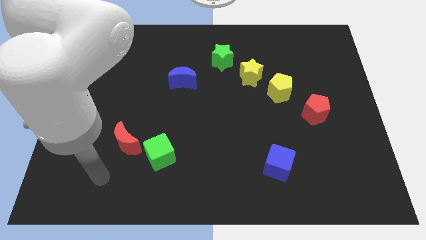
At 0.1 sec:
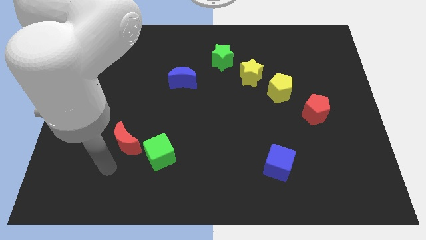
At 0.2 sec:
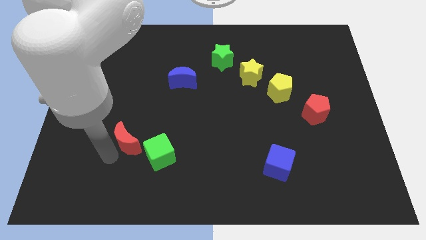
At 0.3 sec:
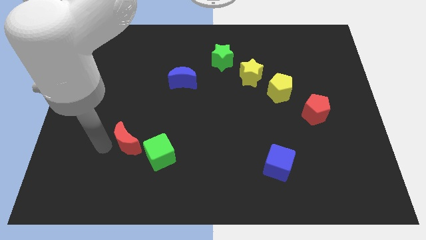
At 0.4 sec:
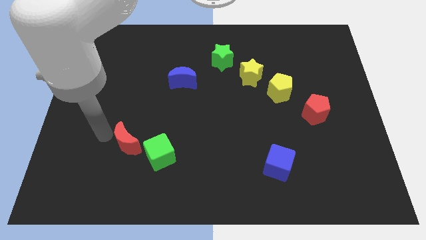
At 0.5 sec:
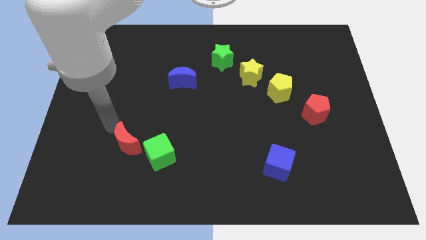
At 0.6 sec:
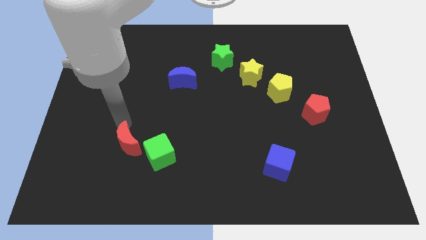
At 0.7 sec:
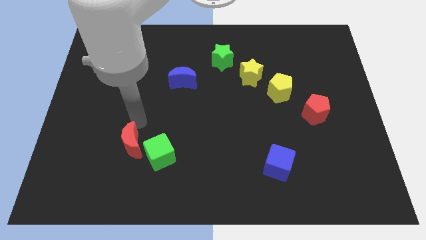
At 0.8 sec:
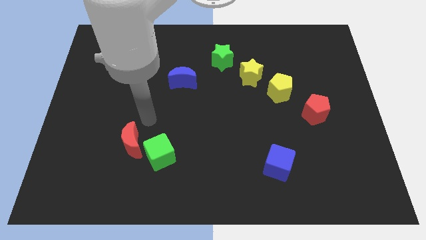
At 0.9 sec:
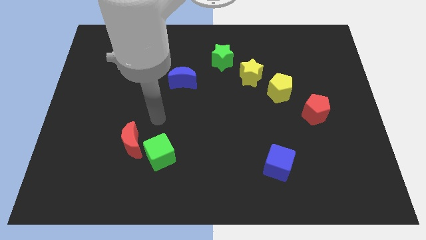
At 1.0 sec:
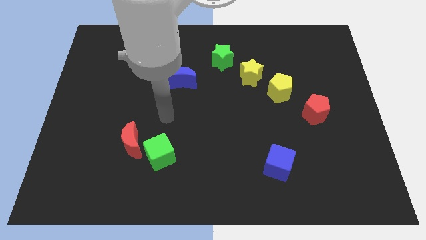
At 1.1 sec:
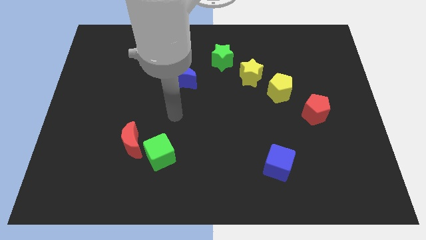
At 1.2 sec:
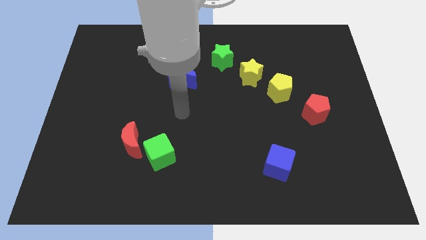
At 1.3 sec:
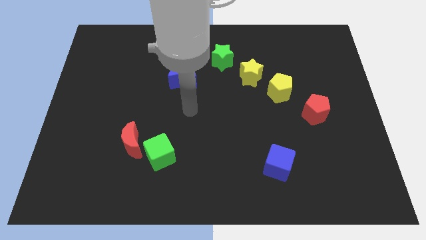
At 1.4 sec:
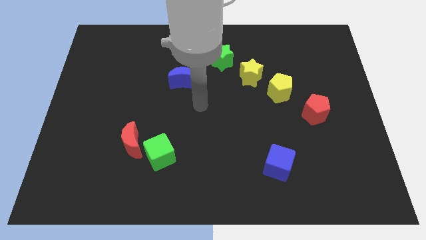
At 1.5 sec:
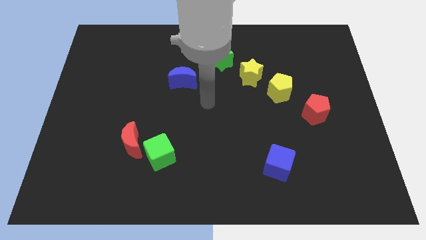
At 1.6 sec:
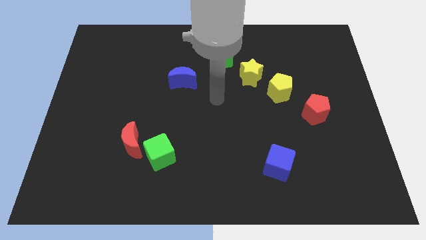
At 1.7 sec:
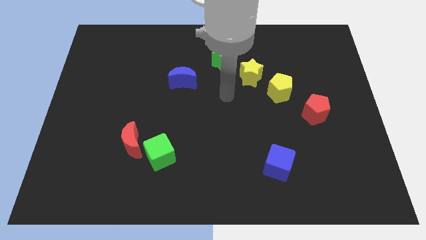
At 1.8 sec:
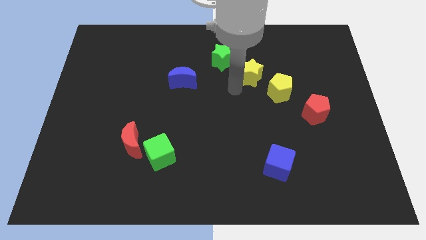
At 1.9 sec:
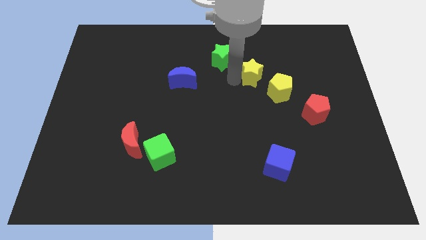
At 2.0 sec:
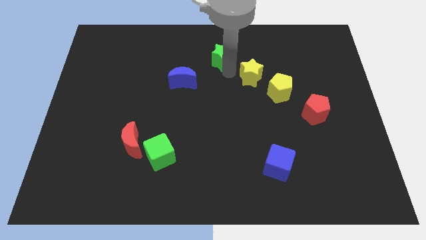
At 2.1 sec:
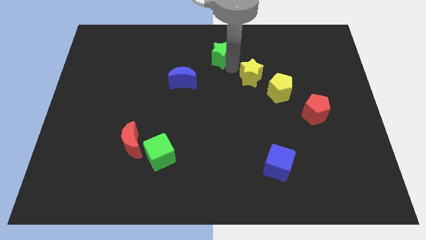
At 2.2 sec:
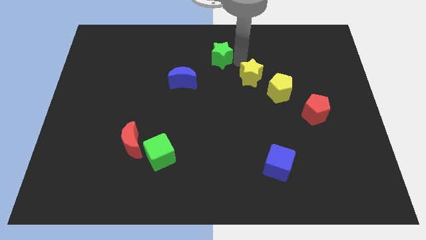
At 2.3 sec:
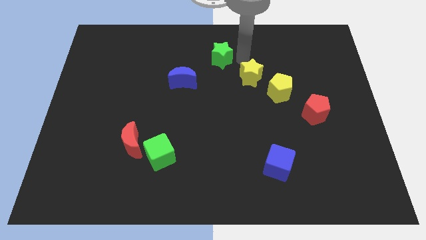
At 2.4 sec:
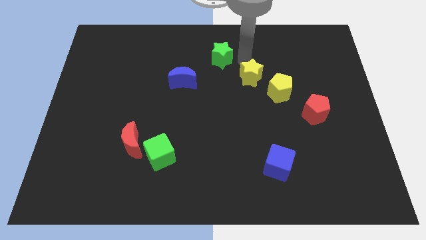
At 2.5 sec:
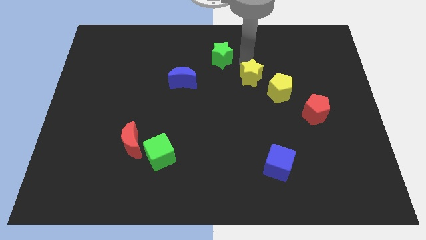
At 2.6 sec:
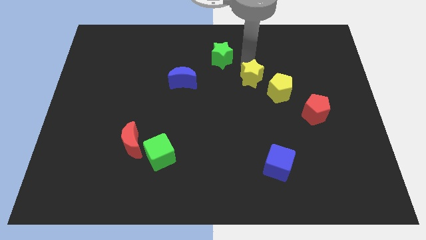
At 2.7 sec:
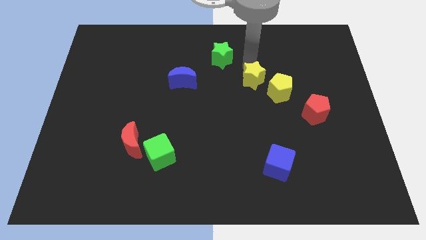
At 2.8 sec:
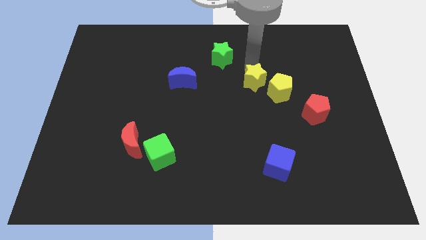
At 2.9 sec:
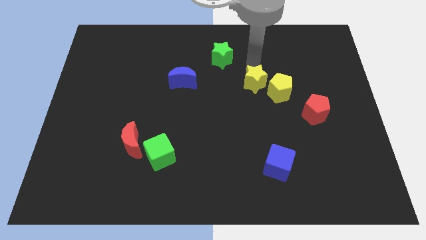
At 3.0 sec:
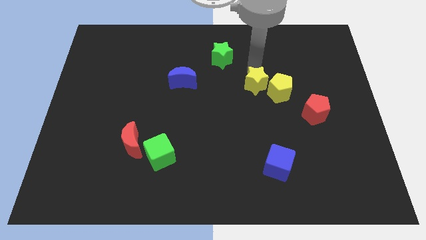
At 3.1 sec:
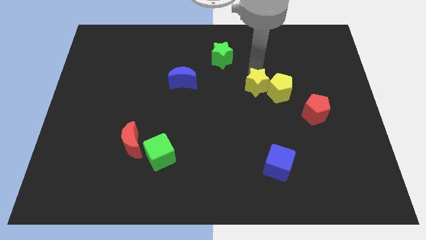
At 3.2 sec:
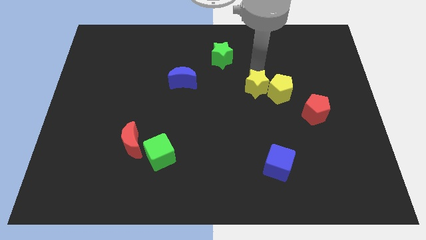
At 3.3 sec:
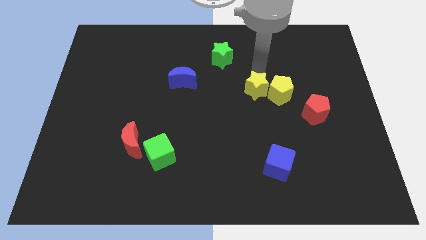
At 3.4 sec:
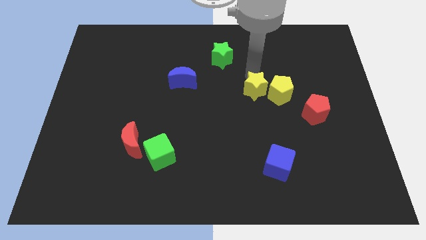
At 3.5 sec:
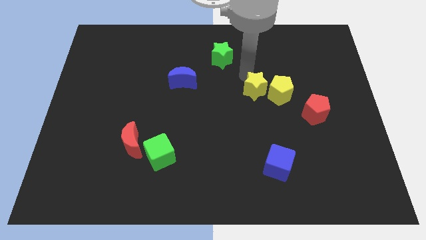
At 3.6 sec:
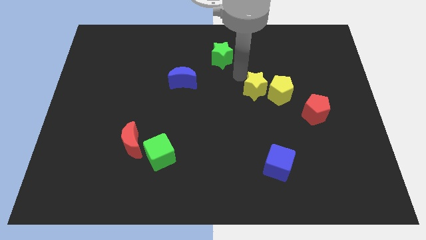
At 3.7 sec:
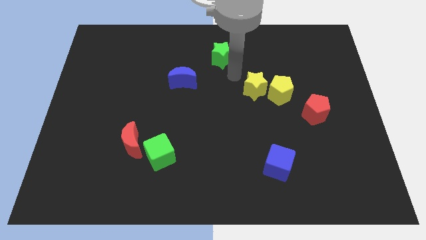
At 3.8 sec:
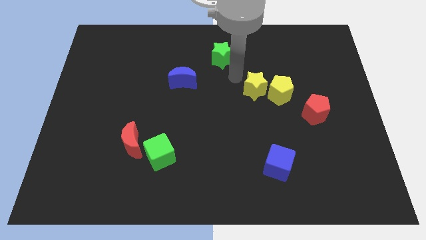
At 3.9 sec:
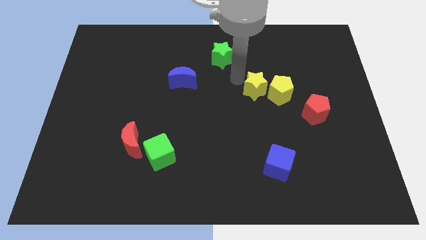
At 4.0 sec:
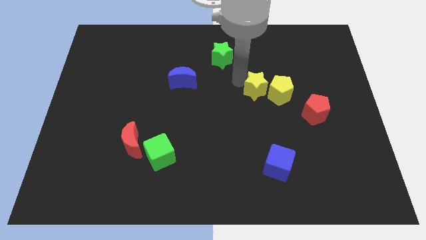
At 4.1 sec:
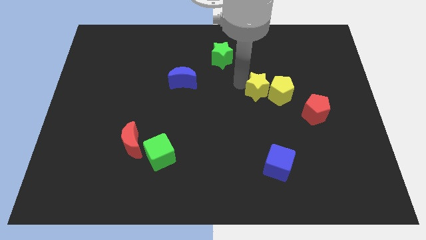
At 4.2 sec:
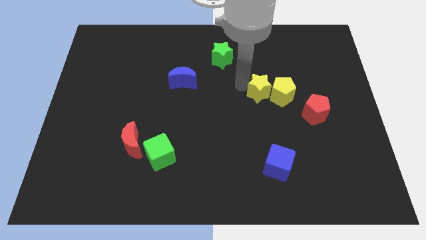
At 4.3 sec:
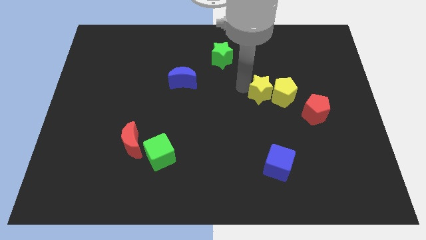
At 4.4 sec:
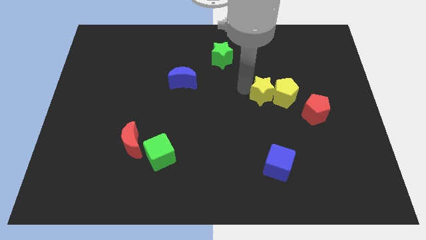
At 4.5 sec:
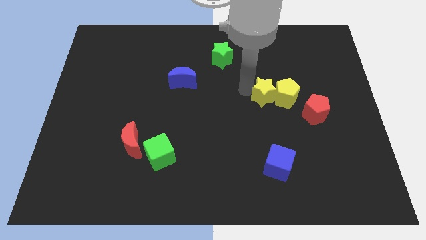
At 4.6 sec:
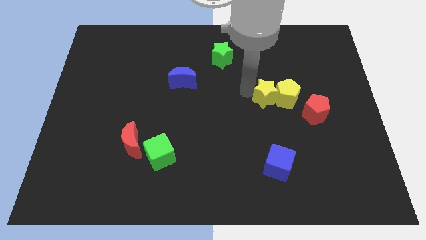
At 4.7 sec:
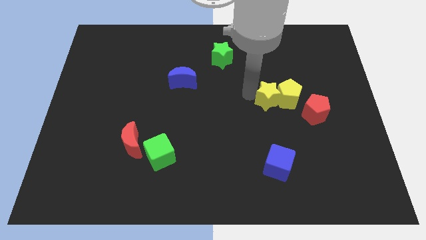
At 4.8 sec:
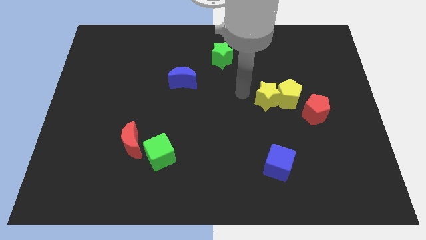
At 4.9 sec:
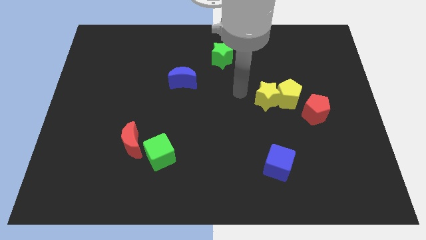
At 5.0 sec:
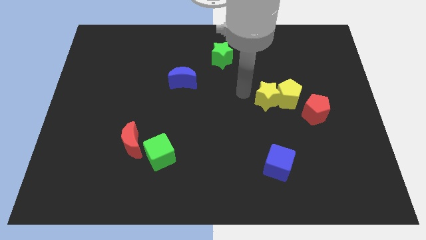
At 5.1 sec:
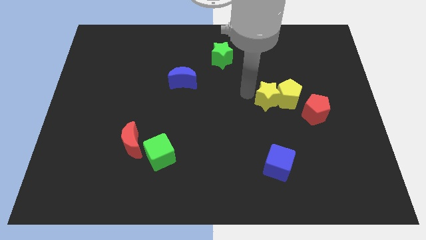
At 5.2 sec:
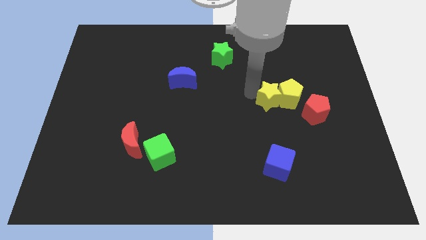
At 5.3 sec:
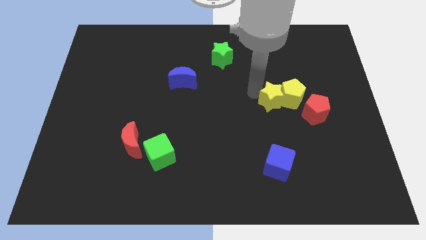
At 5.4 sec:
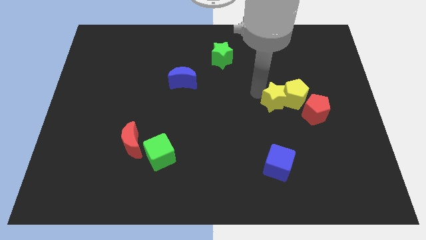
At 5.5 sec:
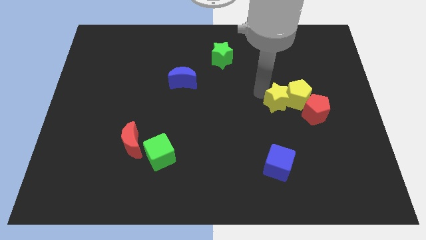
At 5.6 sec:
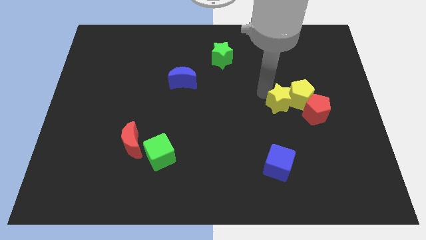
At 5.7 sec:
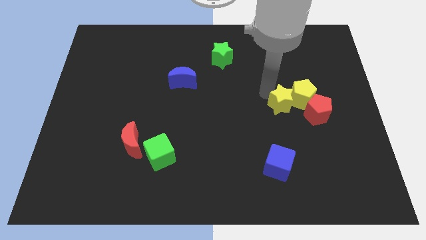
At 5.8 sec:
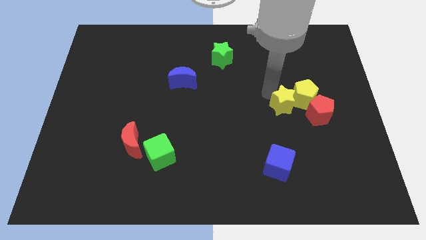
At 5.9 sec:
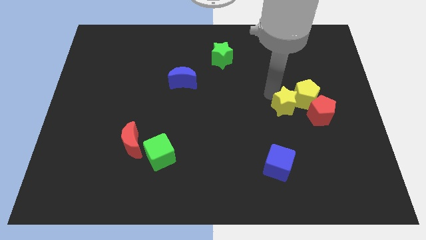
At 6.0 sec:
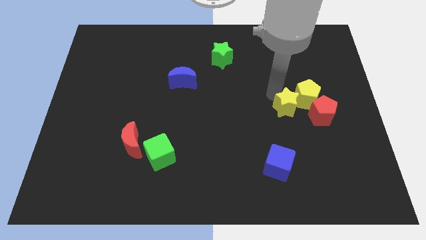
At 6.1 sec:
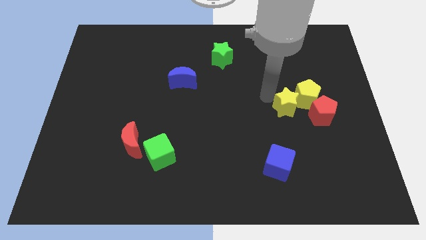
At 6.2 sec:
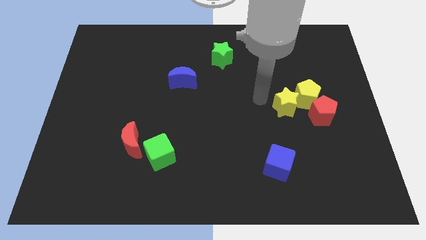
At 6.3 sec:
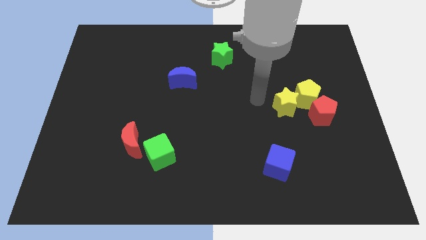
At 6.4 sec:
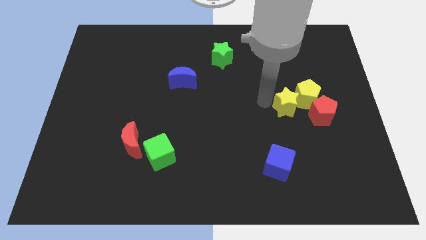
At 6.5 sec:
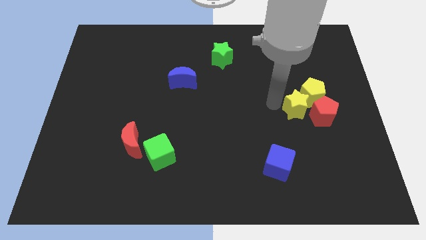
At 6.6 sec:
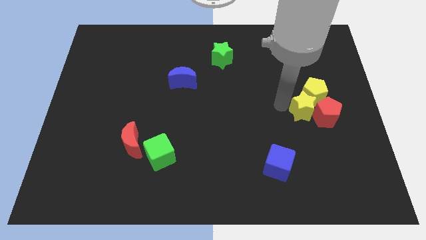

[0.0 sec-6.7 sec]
put the yellow star next to the red pentagon

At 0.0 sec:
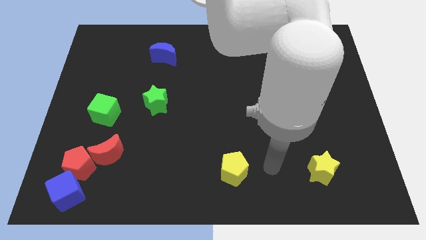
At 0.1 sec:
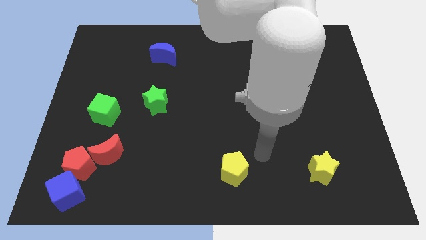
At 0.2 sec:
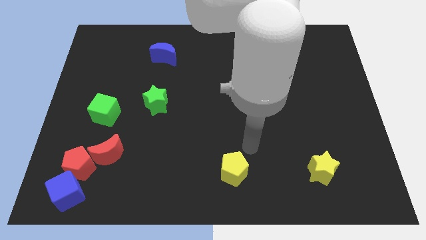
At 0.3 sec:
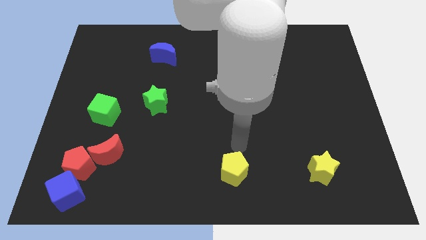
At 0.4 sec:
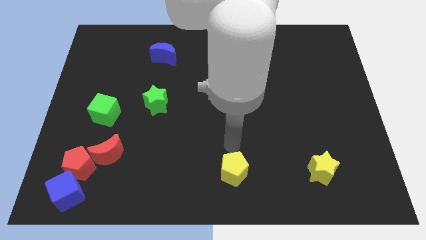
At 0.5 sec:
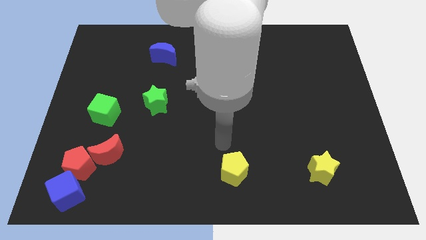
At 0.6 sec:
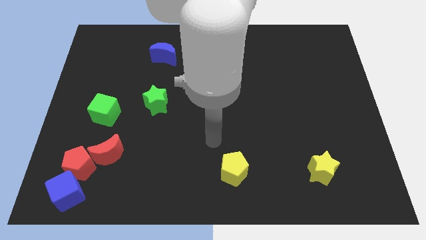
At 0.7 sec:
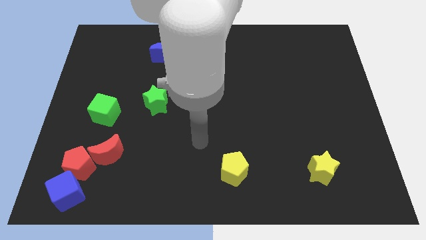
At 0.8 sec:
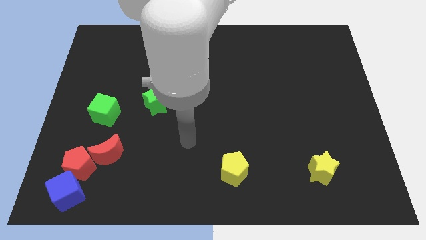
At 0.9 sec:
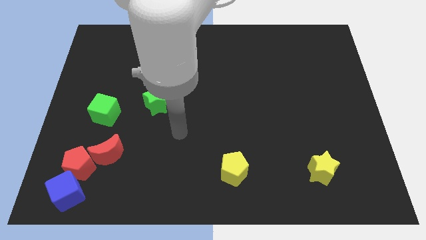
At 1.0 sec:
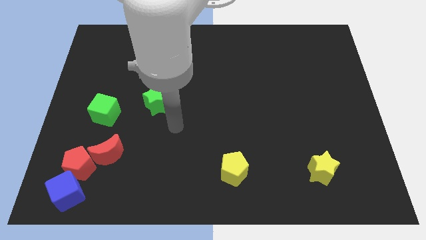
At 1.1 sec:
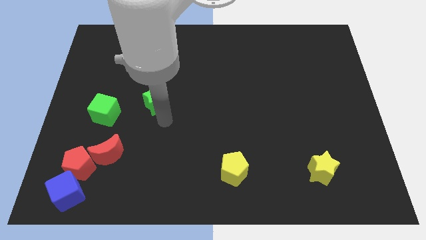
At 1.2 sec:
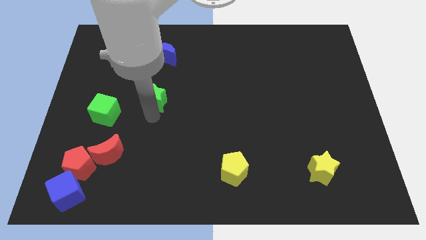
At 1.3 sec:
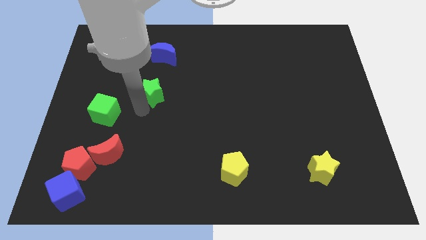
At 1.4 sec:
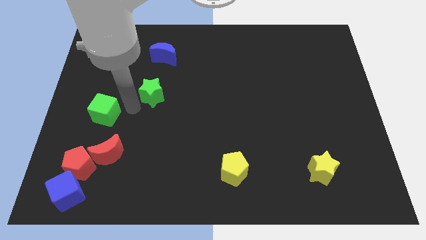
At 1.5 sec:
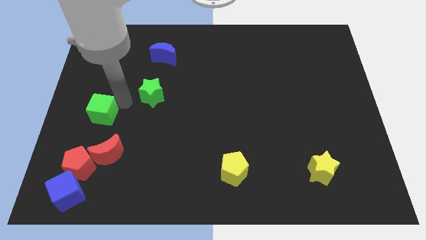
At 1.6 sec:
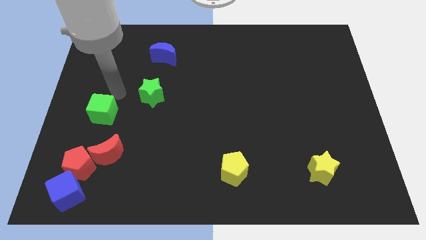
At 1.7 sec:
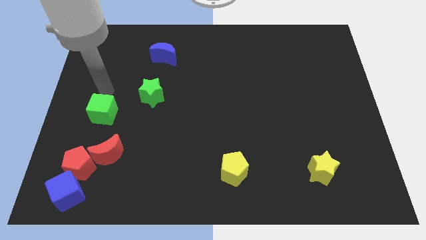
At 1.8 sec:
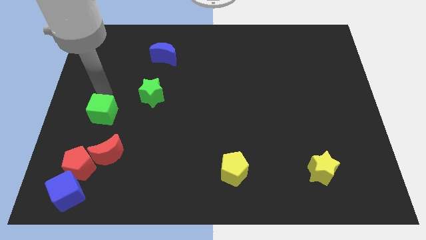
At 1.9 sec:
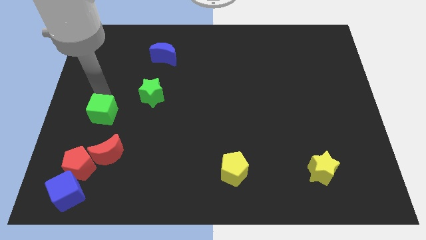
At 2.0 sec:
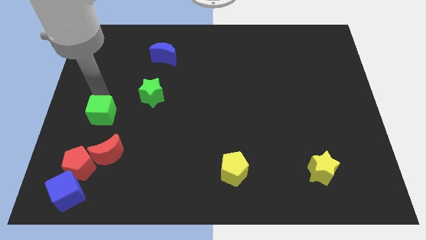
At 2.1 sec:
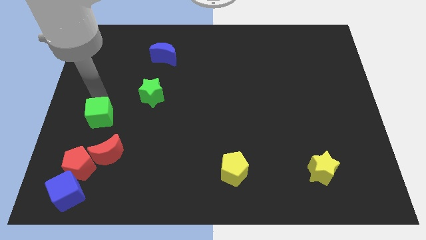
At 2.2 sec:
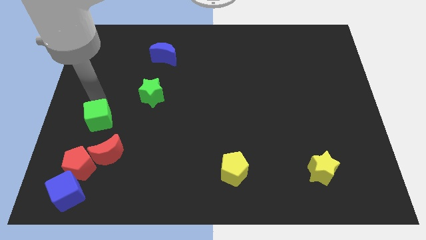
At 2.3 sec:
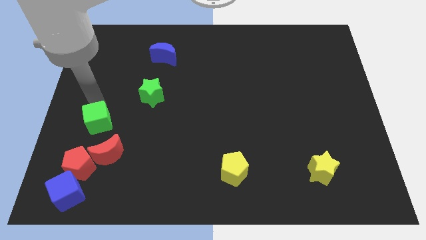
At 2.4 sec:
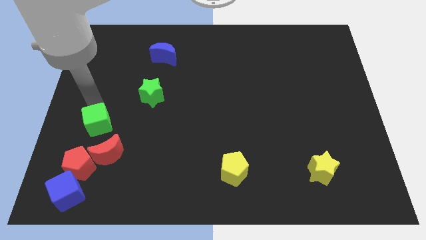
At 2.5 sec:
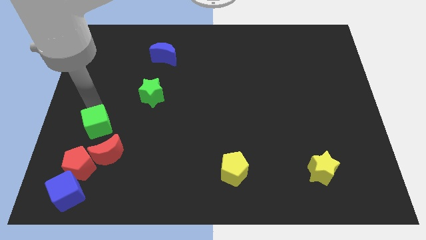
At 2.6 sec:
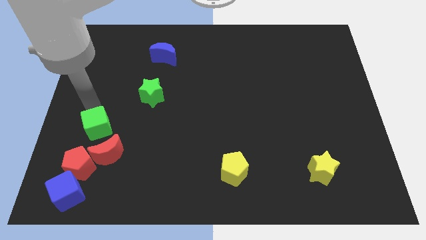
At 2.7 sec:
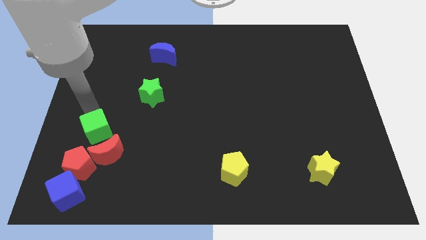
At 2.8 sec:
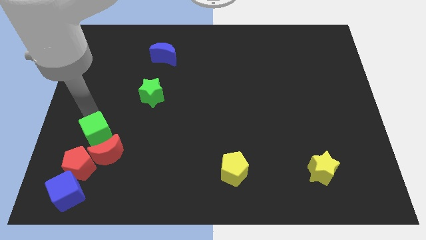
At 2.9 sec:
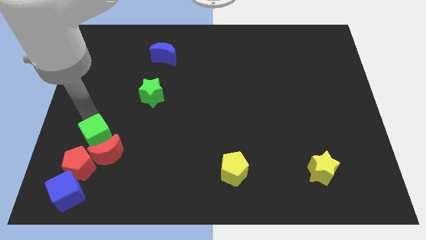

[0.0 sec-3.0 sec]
put the green cube to the red moon
